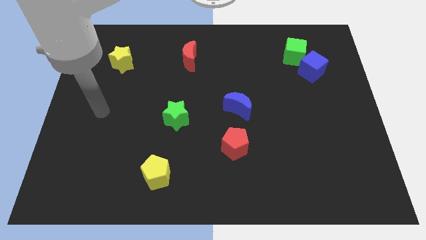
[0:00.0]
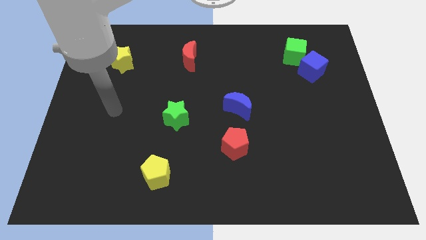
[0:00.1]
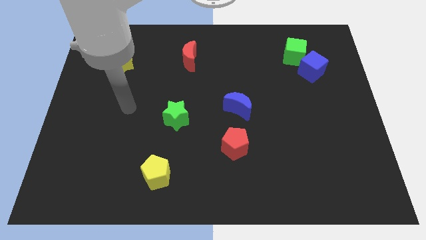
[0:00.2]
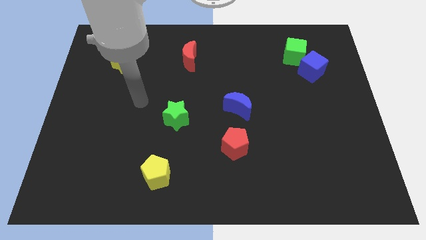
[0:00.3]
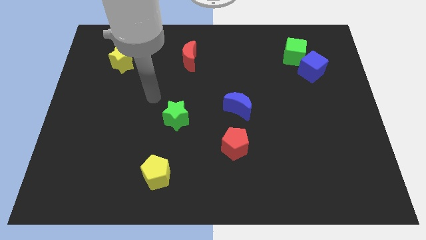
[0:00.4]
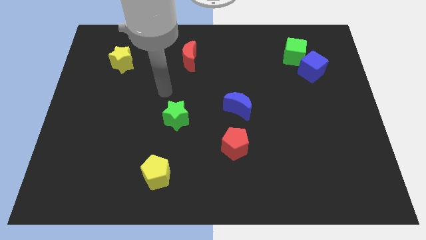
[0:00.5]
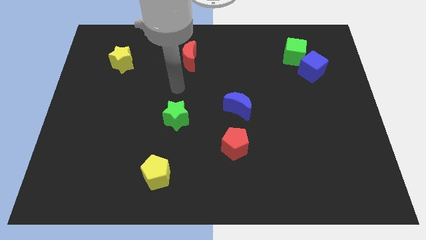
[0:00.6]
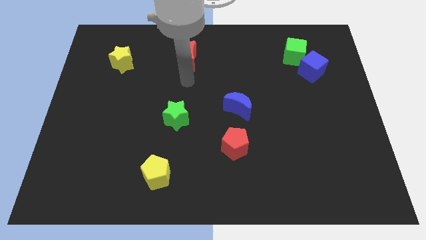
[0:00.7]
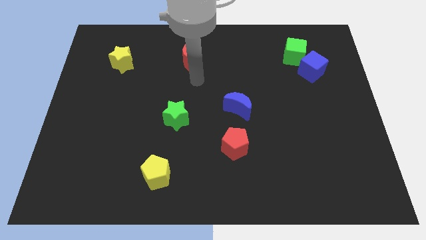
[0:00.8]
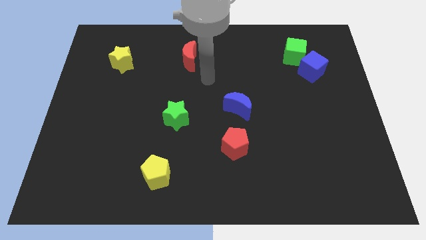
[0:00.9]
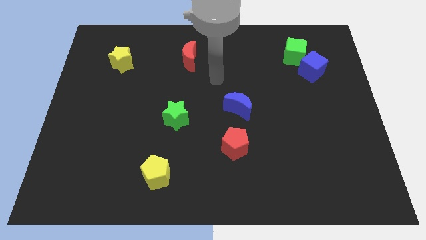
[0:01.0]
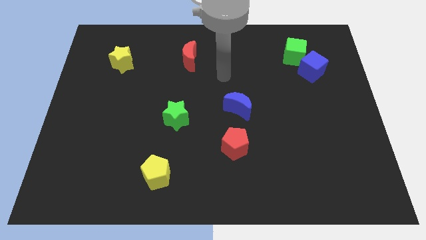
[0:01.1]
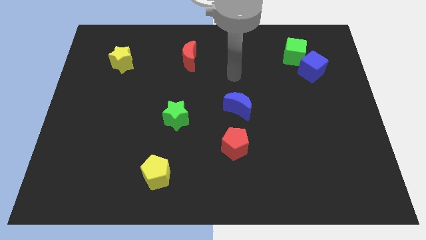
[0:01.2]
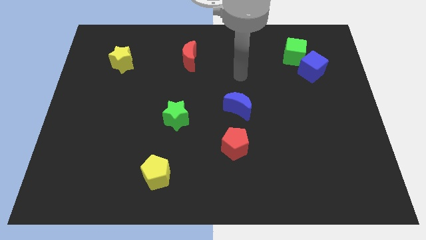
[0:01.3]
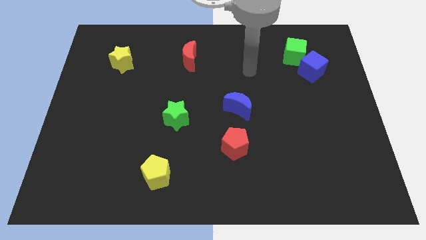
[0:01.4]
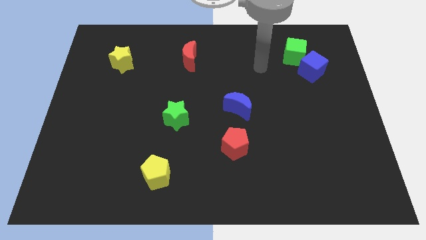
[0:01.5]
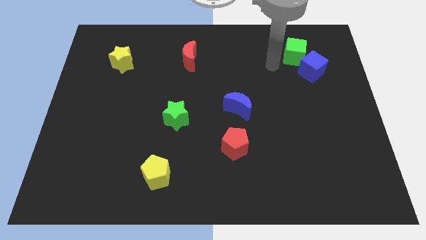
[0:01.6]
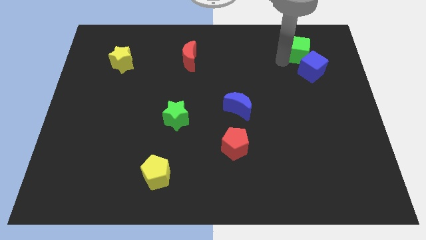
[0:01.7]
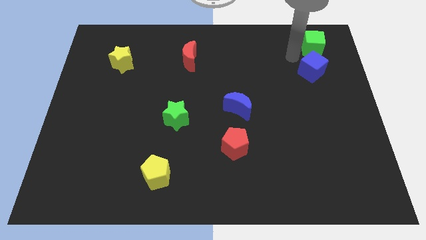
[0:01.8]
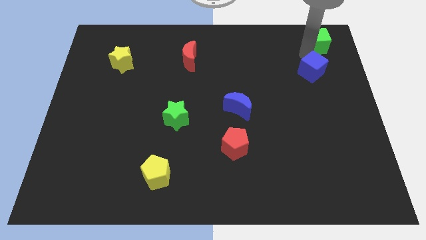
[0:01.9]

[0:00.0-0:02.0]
move the blue cube away from the green cube

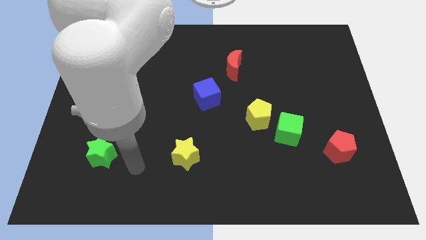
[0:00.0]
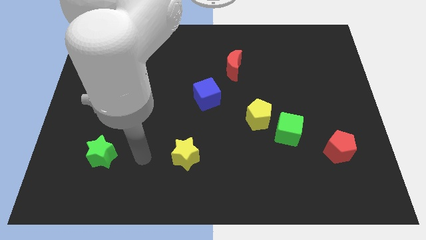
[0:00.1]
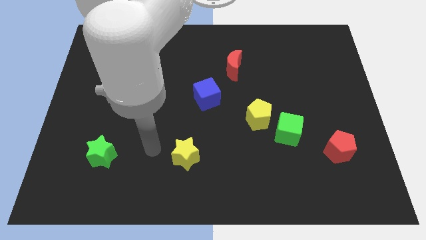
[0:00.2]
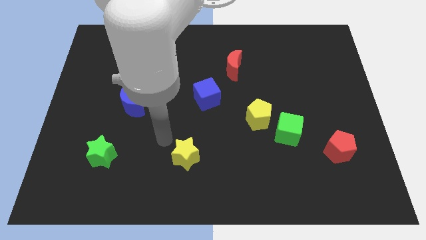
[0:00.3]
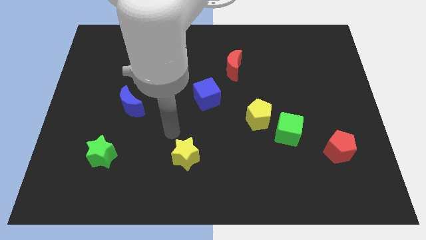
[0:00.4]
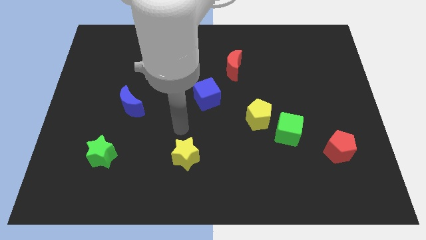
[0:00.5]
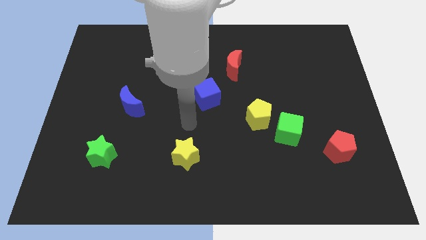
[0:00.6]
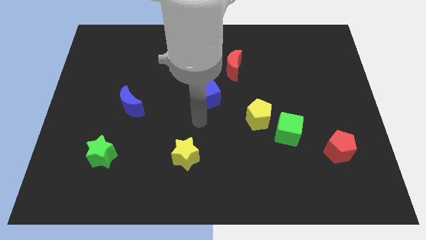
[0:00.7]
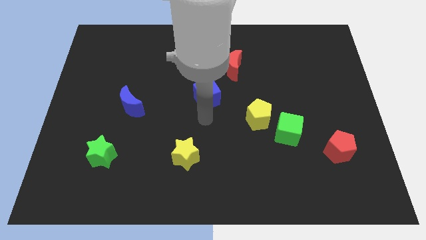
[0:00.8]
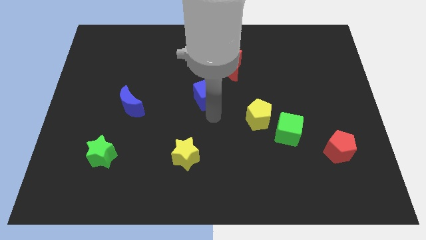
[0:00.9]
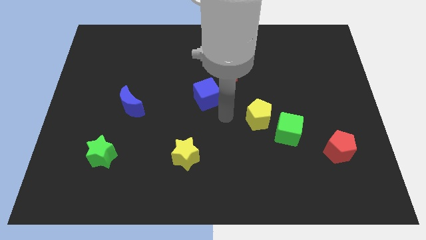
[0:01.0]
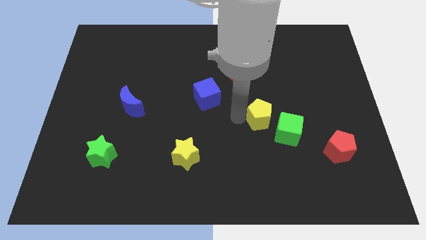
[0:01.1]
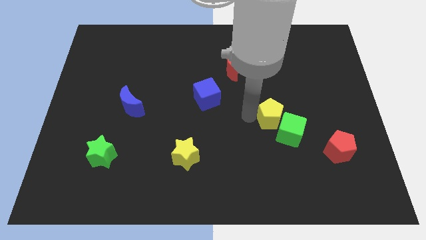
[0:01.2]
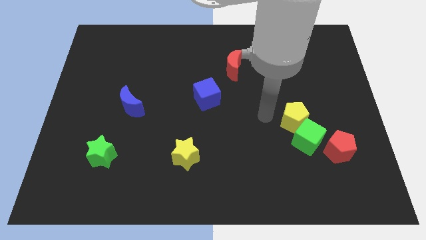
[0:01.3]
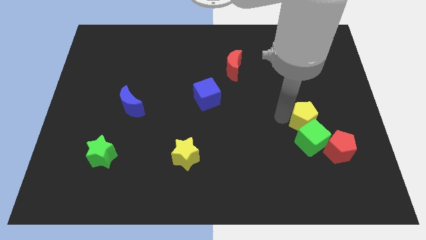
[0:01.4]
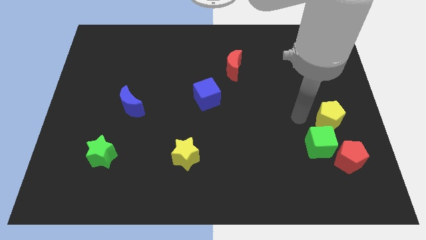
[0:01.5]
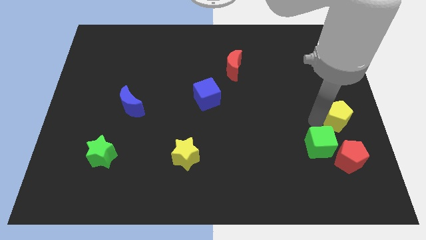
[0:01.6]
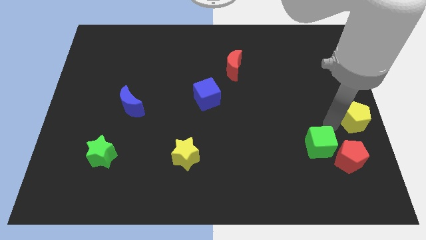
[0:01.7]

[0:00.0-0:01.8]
separate the green cube from the yellow pentagon

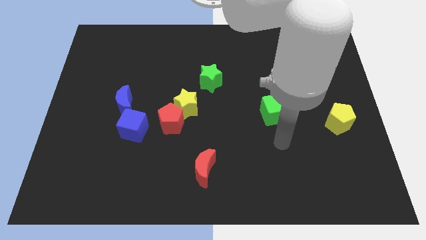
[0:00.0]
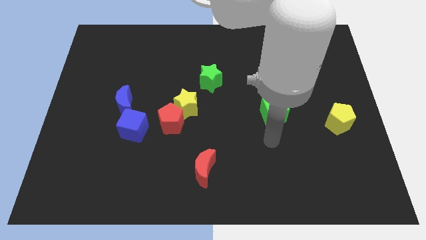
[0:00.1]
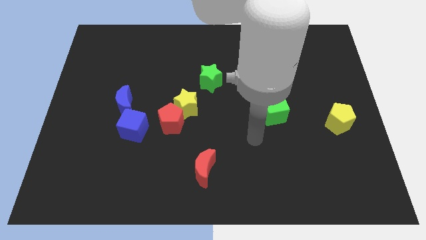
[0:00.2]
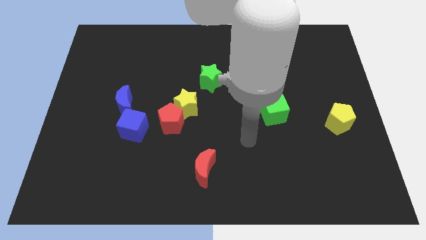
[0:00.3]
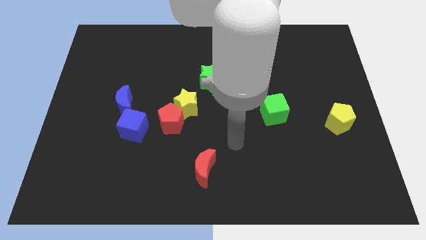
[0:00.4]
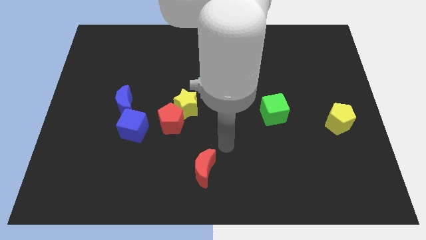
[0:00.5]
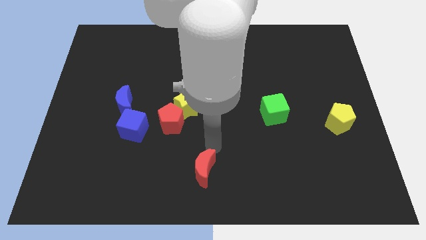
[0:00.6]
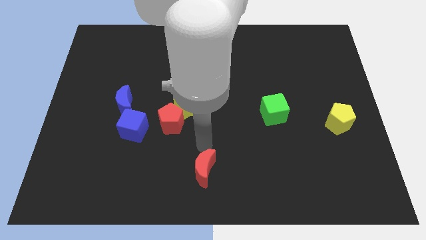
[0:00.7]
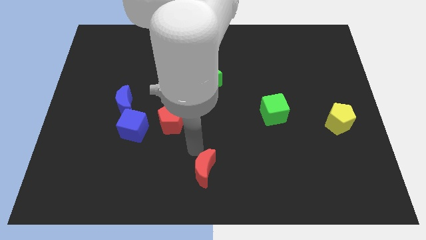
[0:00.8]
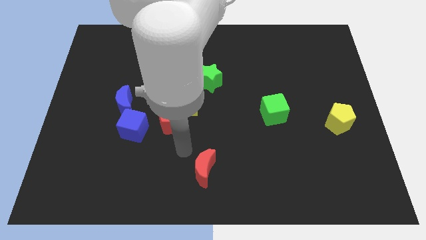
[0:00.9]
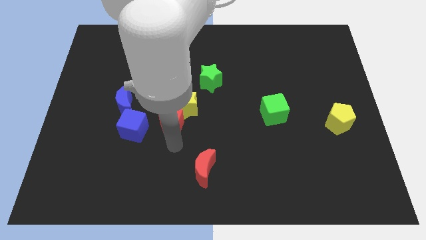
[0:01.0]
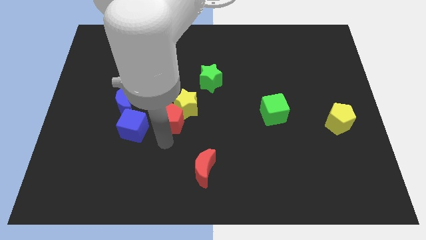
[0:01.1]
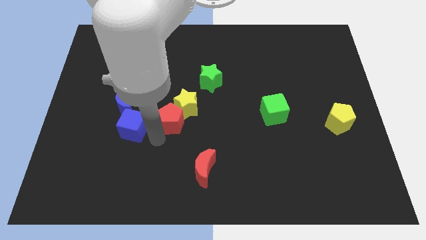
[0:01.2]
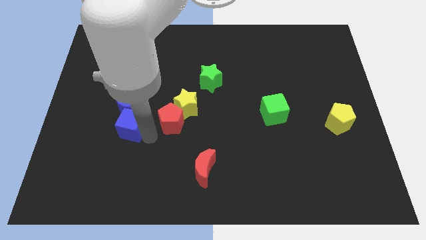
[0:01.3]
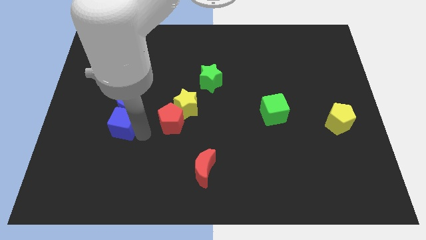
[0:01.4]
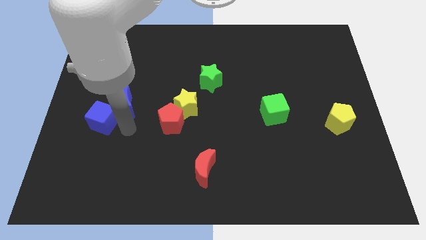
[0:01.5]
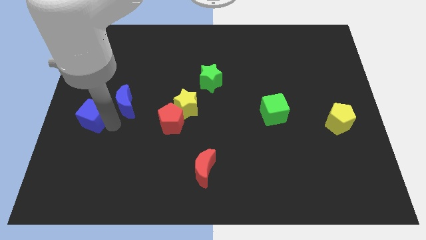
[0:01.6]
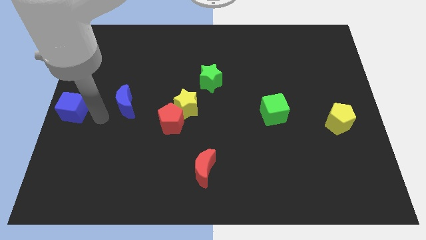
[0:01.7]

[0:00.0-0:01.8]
move the blue moon away from the blue cube

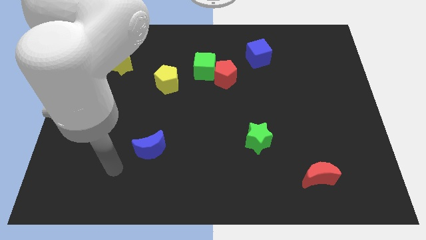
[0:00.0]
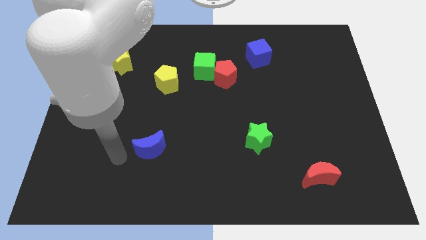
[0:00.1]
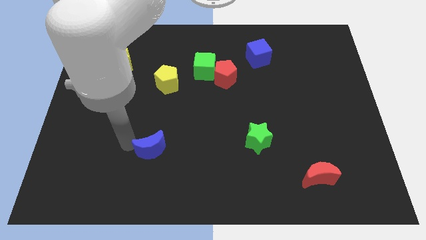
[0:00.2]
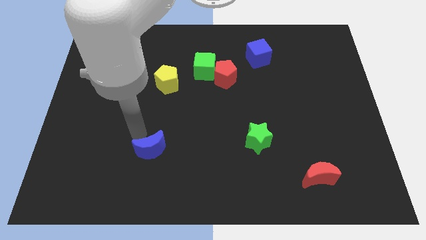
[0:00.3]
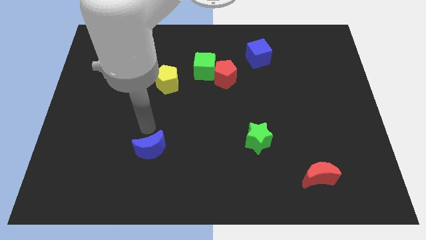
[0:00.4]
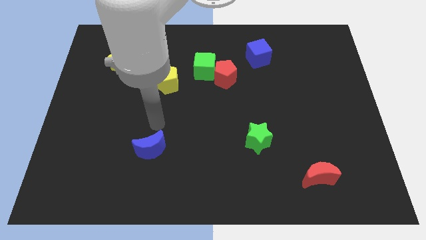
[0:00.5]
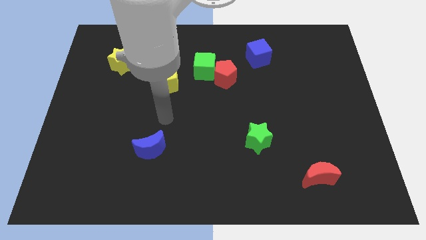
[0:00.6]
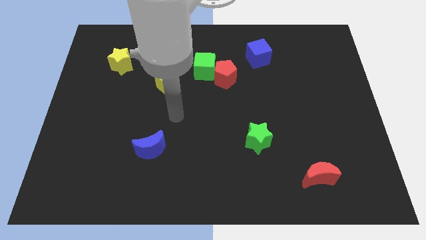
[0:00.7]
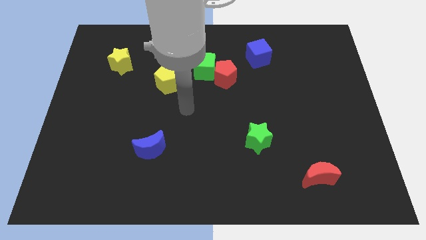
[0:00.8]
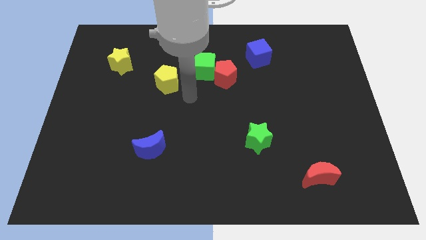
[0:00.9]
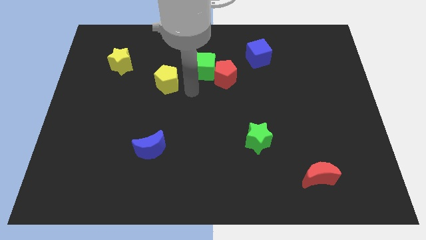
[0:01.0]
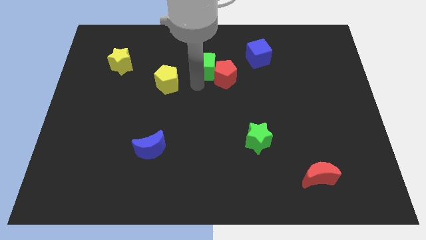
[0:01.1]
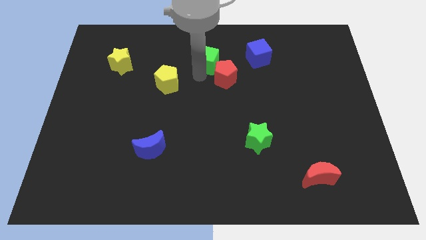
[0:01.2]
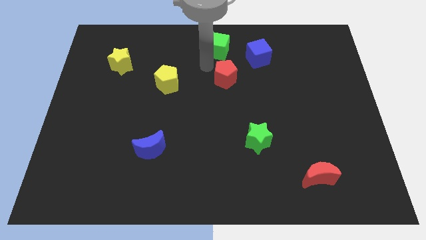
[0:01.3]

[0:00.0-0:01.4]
pull the red pentagon apart from the green cube

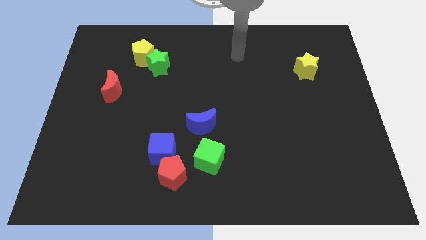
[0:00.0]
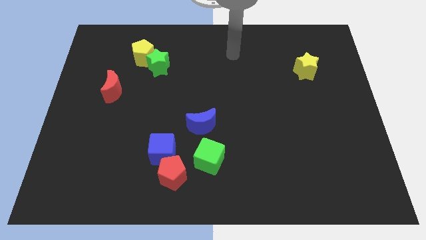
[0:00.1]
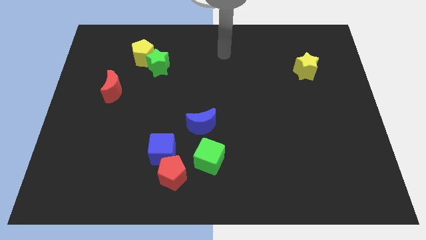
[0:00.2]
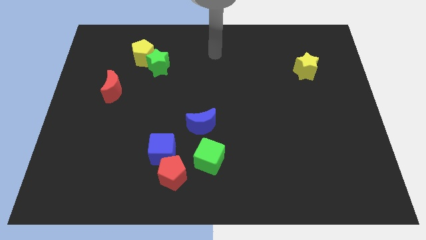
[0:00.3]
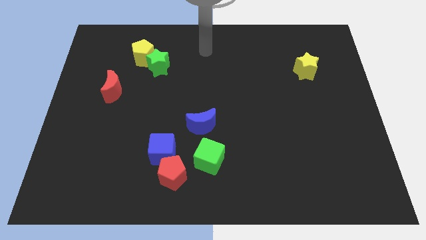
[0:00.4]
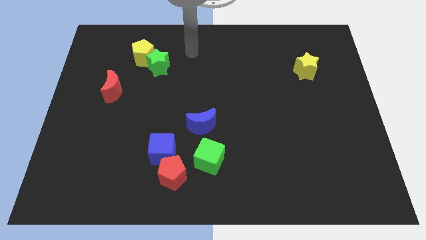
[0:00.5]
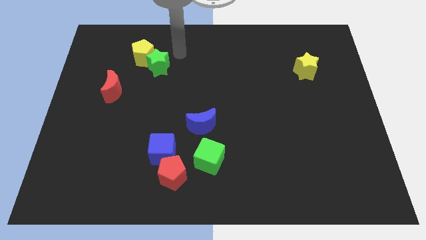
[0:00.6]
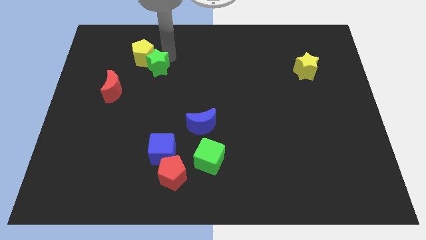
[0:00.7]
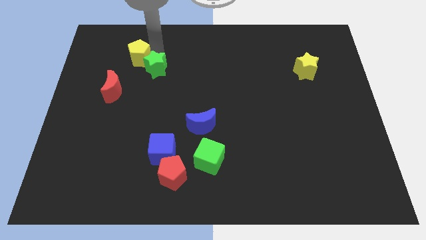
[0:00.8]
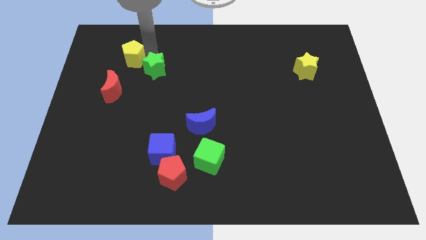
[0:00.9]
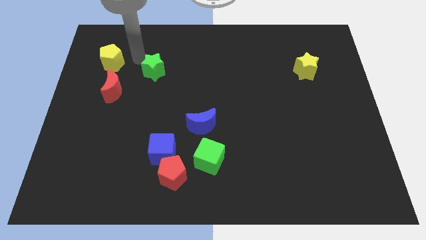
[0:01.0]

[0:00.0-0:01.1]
pull the green star apart from the yellow pentagon

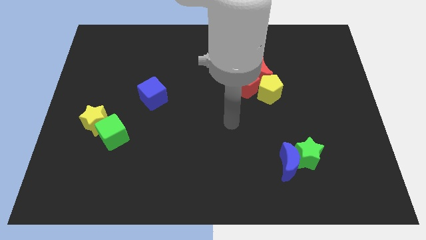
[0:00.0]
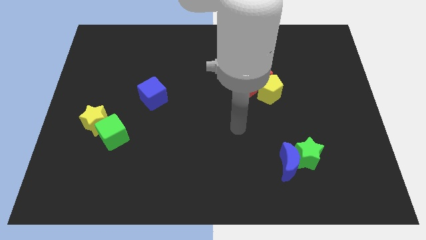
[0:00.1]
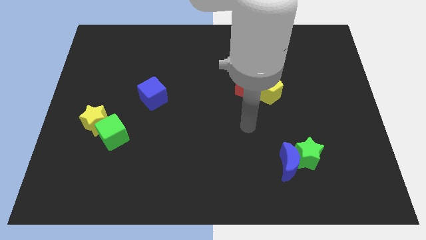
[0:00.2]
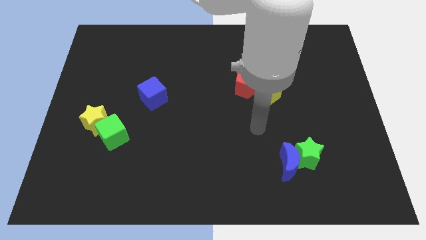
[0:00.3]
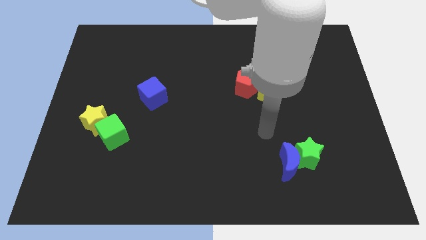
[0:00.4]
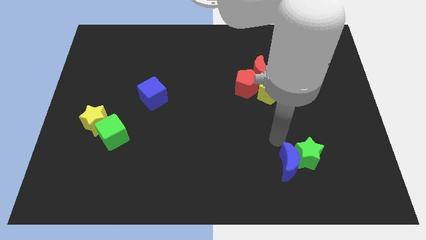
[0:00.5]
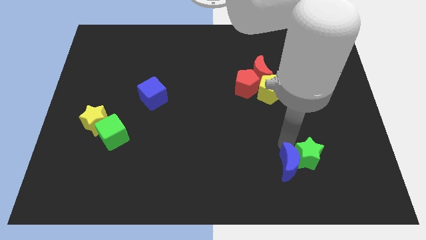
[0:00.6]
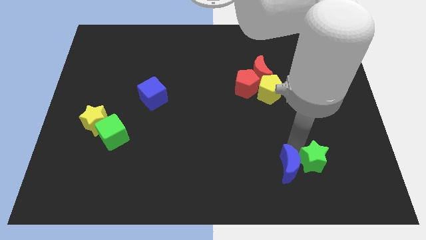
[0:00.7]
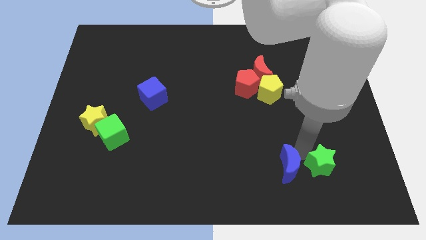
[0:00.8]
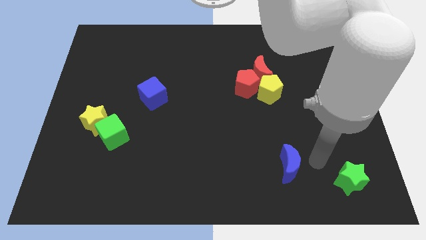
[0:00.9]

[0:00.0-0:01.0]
pull the blue moon apart from the green star

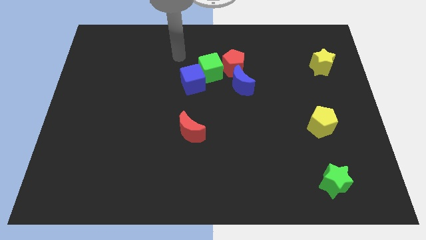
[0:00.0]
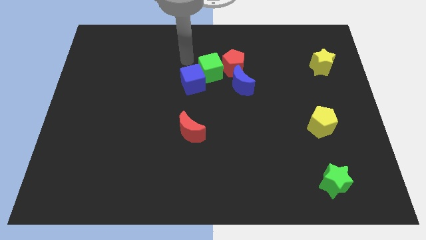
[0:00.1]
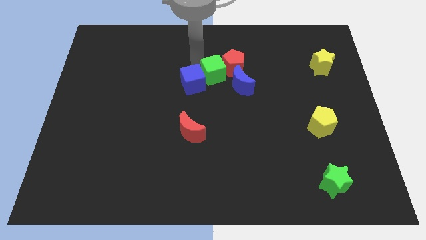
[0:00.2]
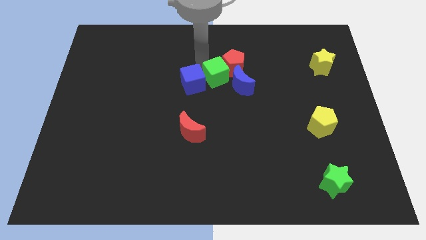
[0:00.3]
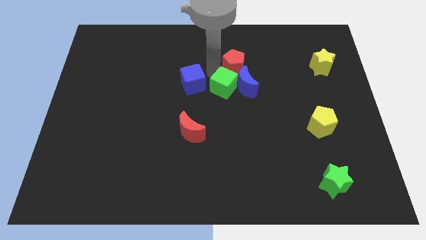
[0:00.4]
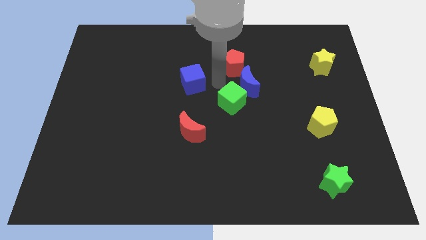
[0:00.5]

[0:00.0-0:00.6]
separate the blue cube from the green cube
